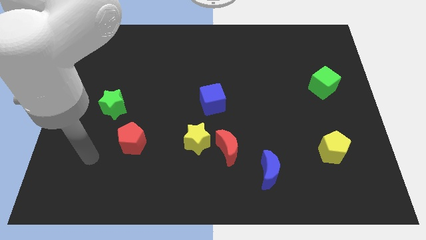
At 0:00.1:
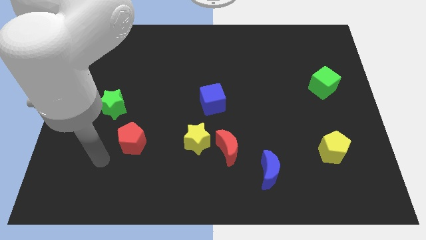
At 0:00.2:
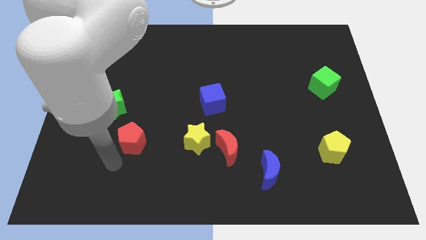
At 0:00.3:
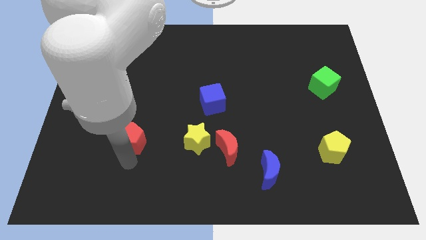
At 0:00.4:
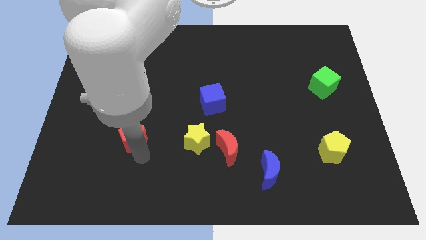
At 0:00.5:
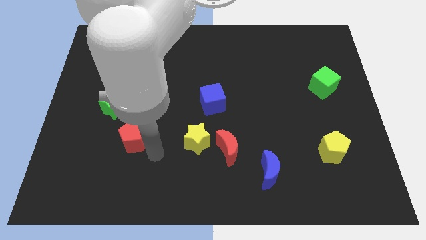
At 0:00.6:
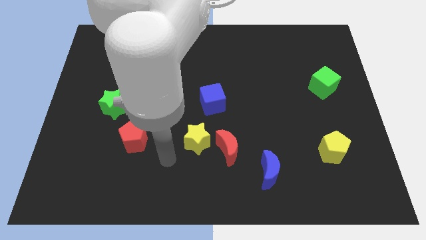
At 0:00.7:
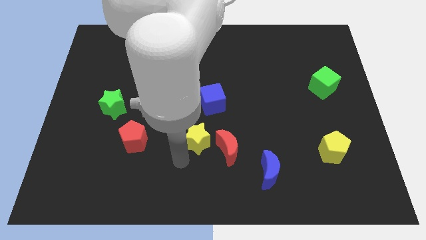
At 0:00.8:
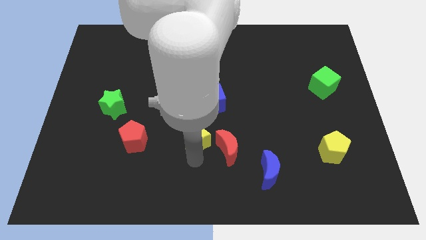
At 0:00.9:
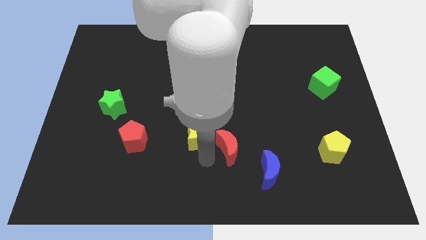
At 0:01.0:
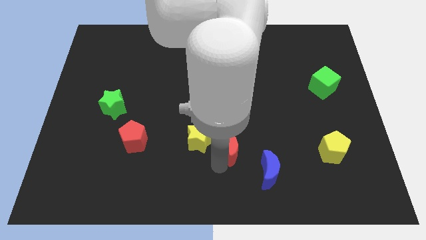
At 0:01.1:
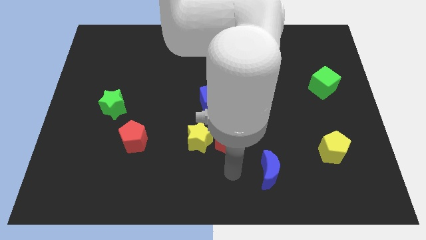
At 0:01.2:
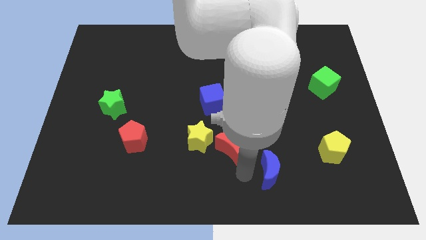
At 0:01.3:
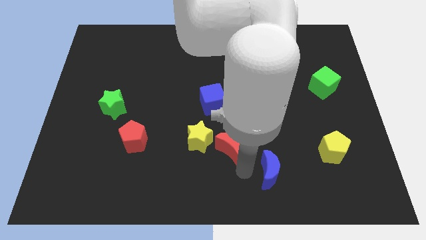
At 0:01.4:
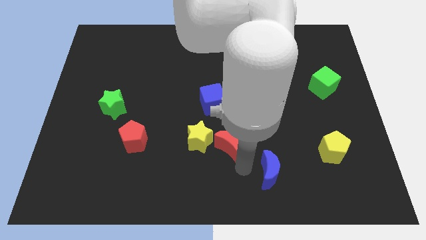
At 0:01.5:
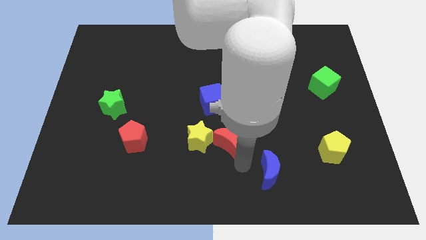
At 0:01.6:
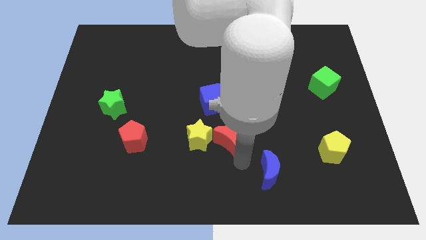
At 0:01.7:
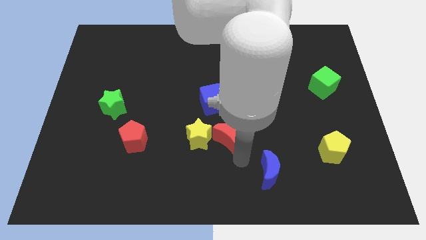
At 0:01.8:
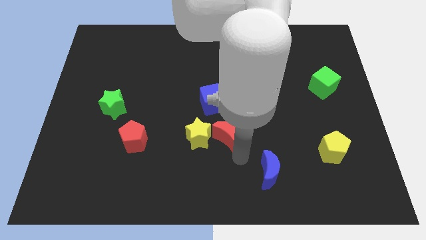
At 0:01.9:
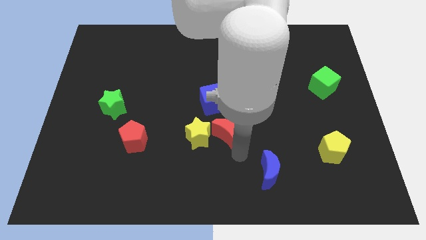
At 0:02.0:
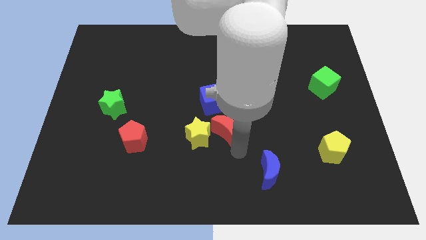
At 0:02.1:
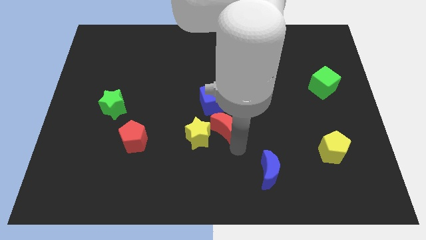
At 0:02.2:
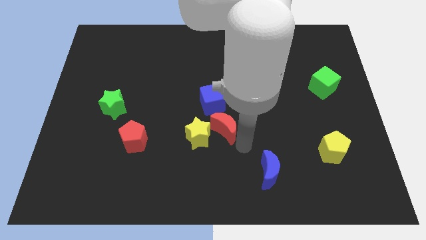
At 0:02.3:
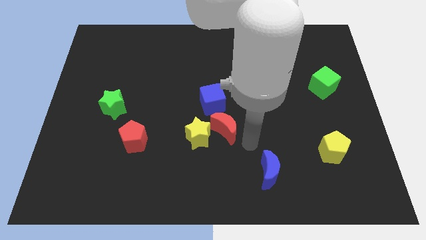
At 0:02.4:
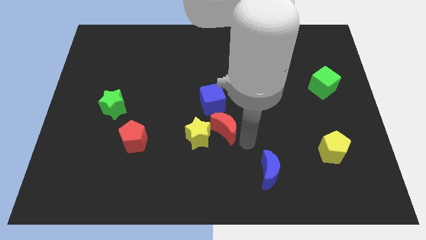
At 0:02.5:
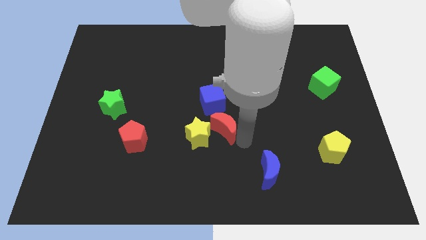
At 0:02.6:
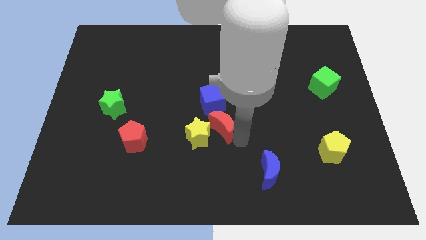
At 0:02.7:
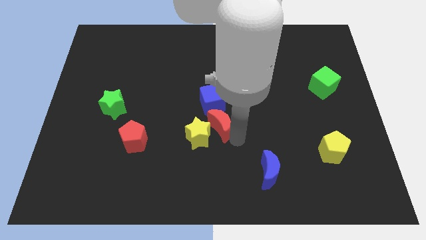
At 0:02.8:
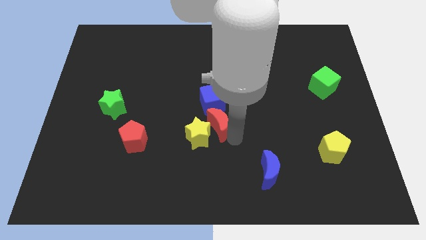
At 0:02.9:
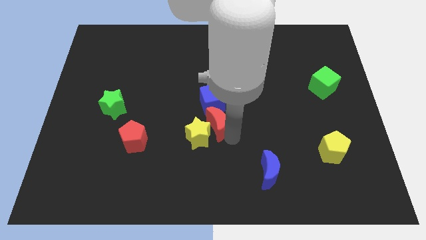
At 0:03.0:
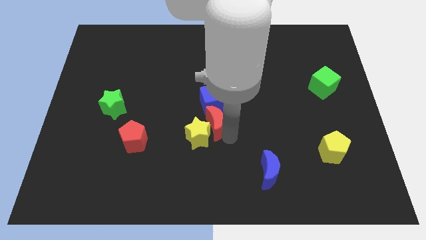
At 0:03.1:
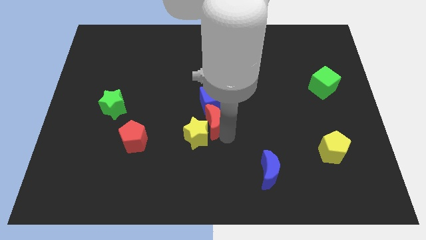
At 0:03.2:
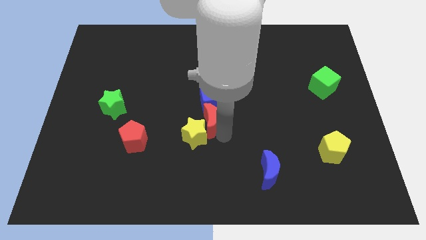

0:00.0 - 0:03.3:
slide the red moon a bit upwards and to the left diagonally

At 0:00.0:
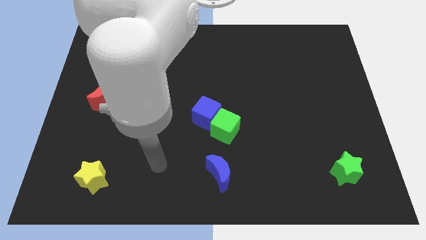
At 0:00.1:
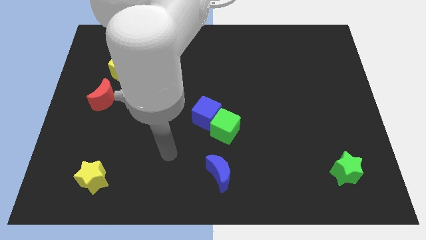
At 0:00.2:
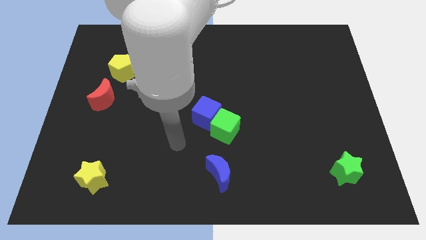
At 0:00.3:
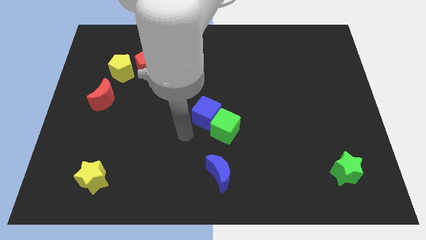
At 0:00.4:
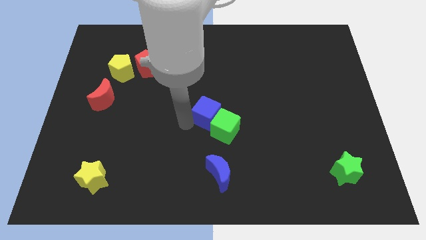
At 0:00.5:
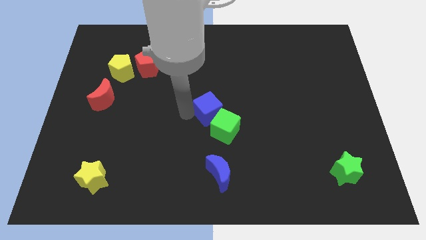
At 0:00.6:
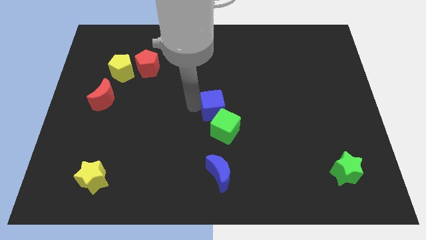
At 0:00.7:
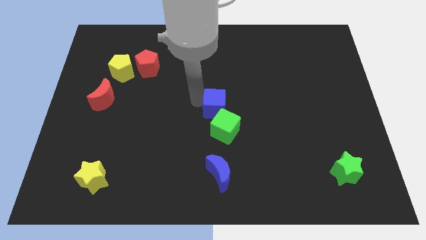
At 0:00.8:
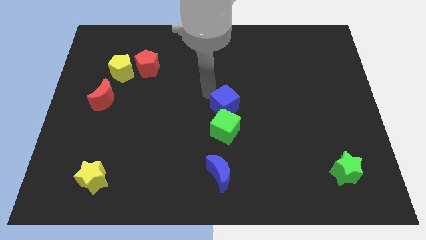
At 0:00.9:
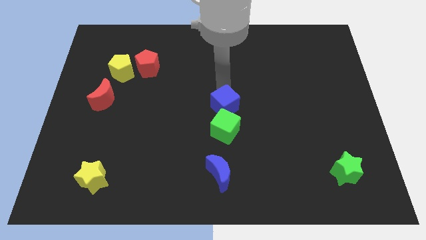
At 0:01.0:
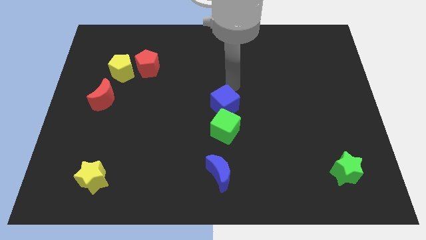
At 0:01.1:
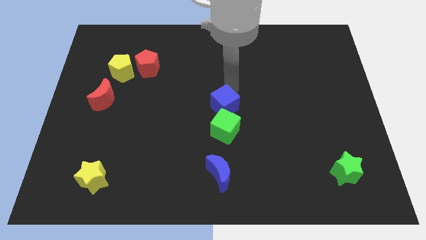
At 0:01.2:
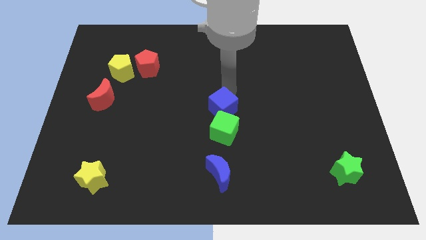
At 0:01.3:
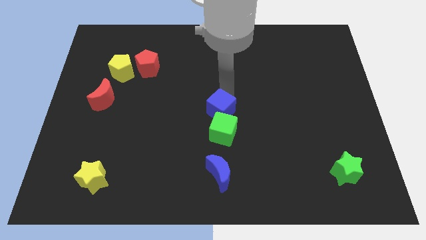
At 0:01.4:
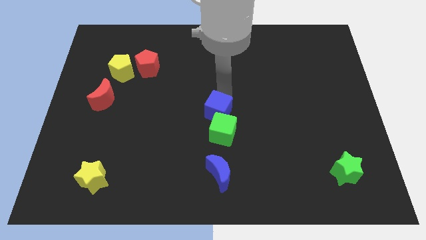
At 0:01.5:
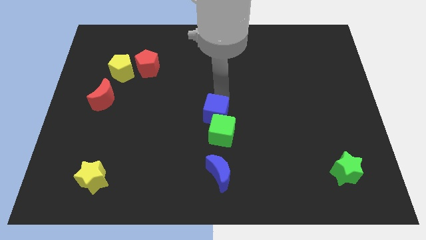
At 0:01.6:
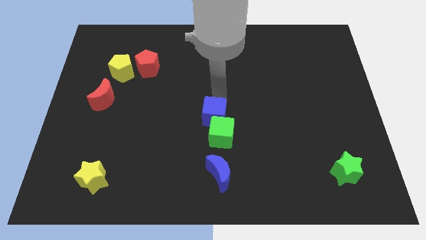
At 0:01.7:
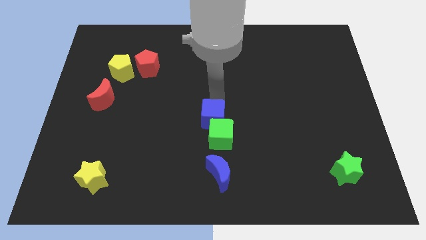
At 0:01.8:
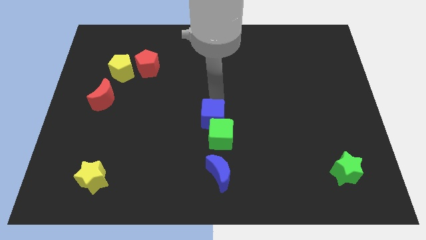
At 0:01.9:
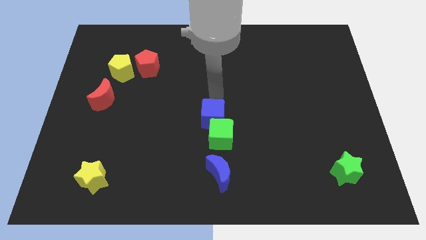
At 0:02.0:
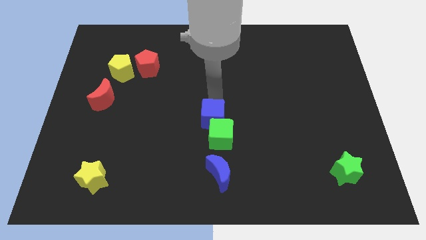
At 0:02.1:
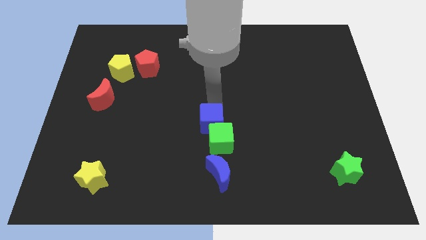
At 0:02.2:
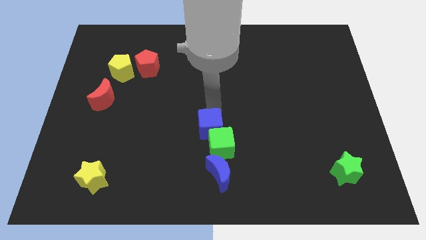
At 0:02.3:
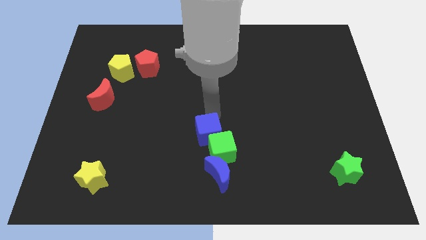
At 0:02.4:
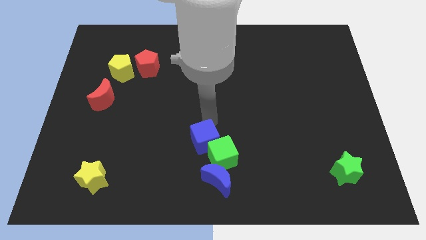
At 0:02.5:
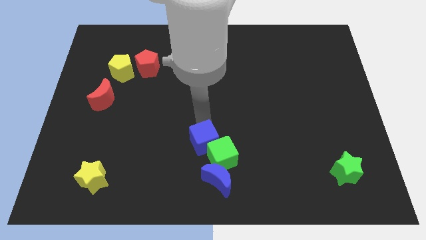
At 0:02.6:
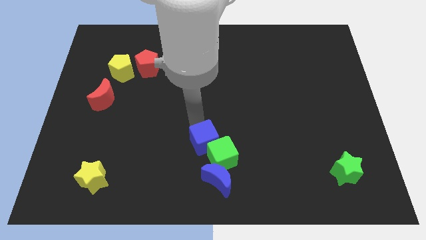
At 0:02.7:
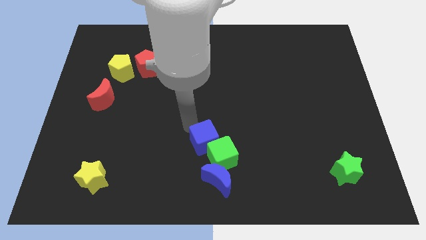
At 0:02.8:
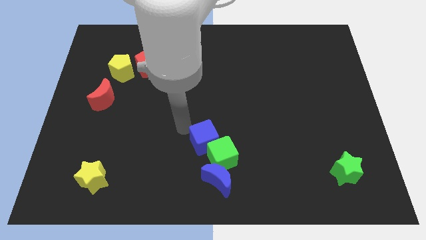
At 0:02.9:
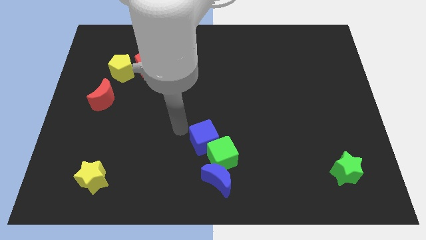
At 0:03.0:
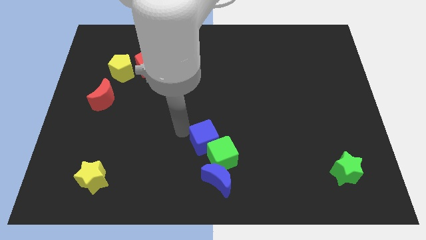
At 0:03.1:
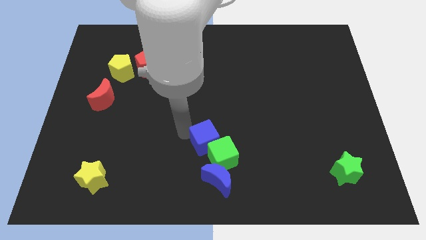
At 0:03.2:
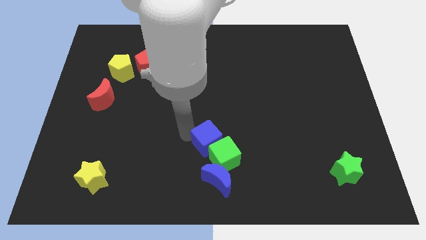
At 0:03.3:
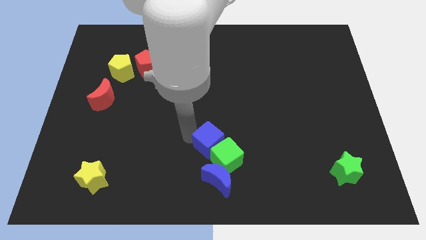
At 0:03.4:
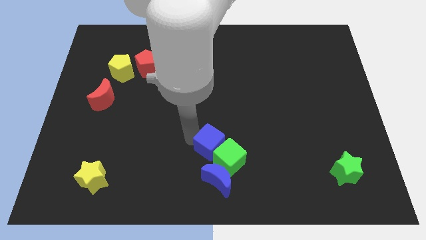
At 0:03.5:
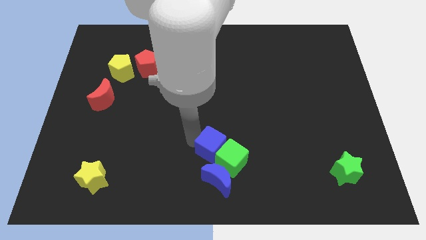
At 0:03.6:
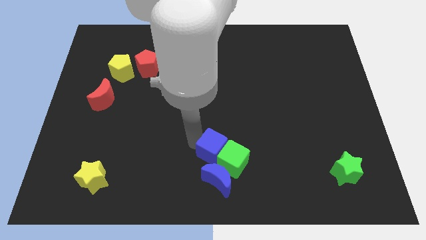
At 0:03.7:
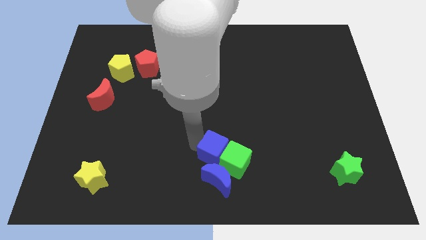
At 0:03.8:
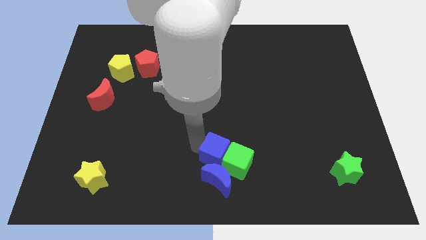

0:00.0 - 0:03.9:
slightly slide the blue cube downwards and right

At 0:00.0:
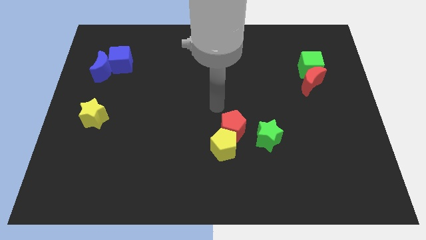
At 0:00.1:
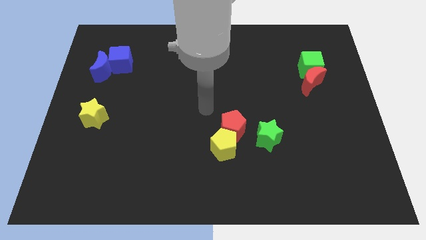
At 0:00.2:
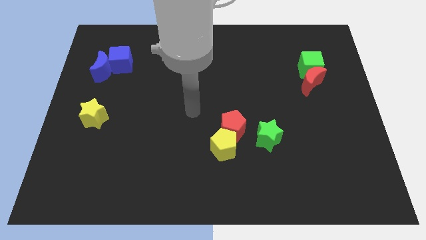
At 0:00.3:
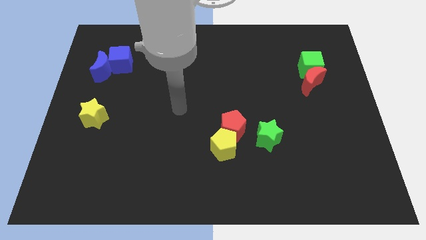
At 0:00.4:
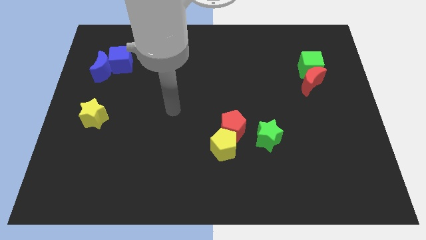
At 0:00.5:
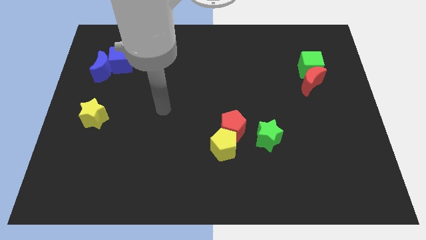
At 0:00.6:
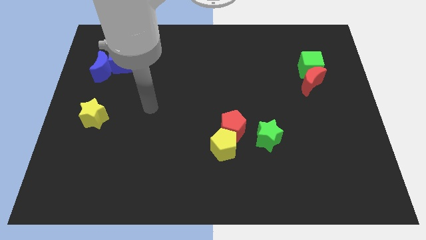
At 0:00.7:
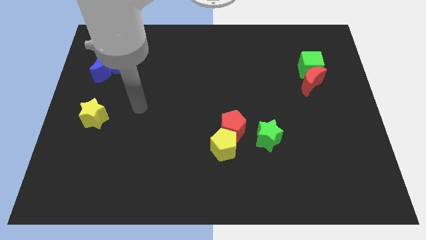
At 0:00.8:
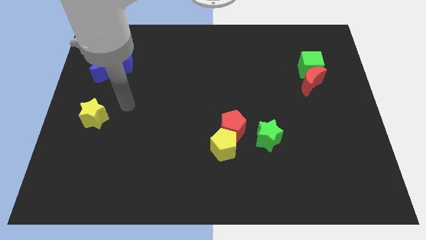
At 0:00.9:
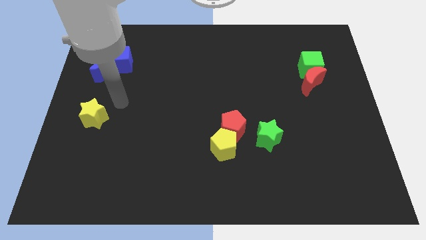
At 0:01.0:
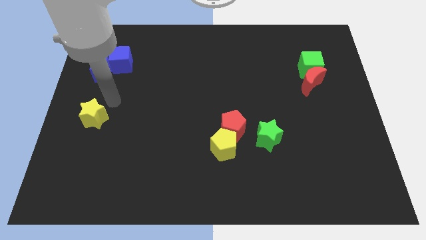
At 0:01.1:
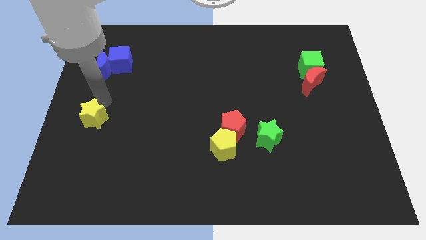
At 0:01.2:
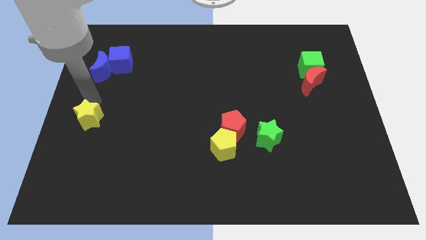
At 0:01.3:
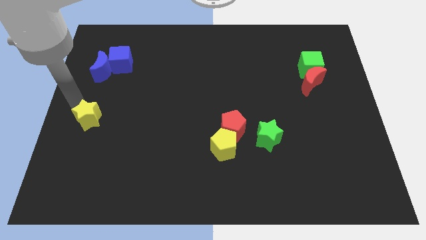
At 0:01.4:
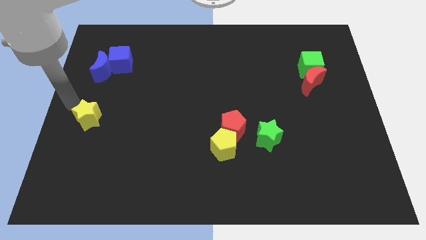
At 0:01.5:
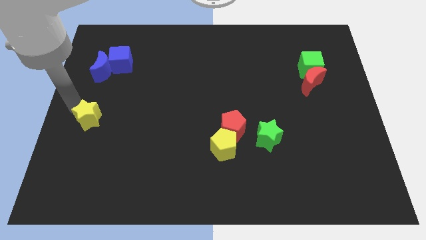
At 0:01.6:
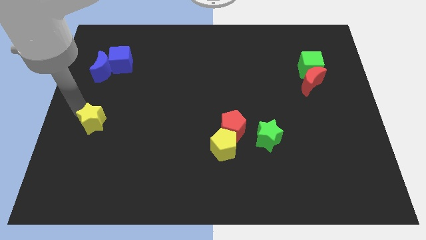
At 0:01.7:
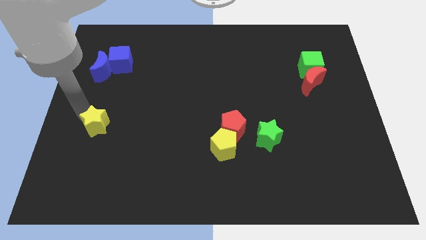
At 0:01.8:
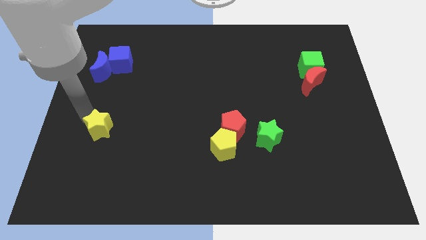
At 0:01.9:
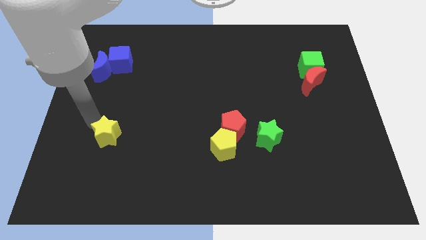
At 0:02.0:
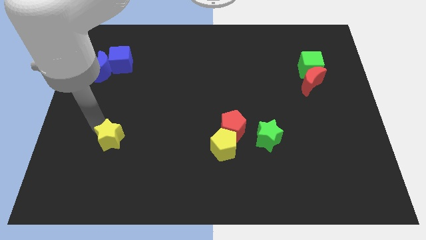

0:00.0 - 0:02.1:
move the yellow star a little downwards and to the right
